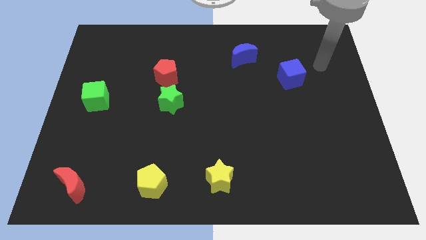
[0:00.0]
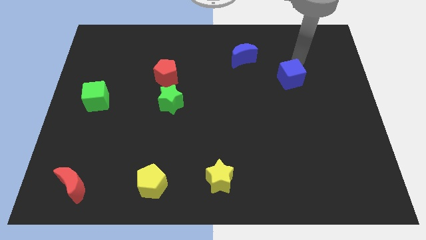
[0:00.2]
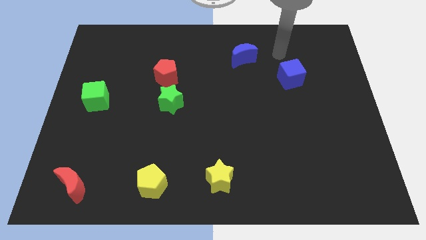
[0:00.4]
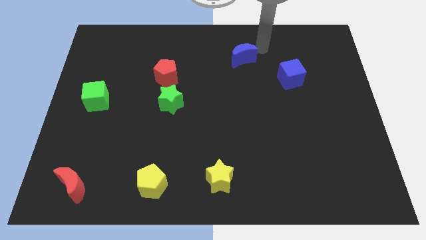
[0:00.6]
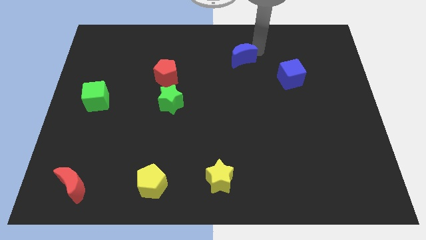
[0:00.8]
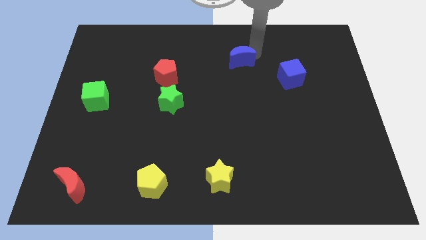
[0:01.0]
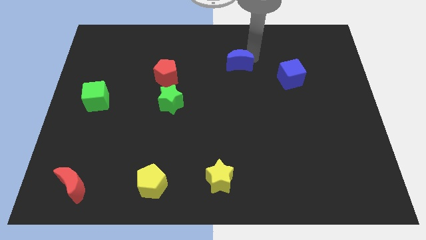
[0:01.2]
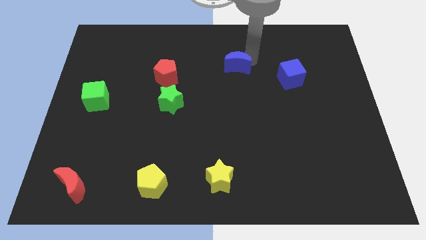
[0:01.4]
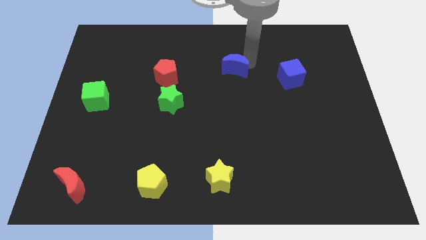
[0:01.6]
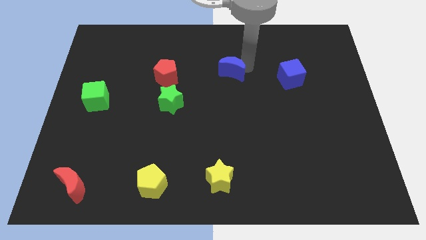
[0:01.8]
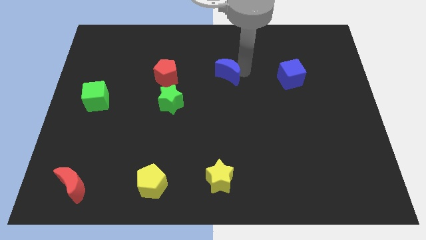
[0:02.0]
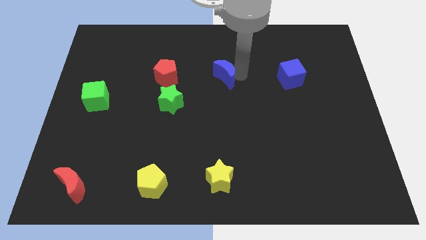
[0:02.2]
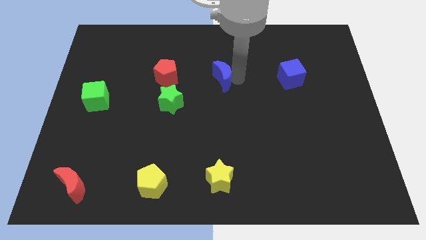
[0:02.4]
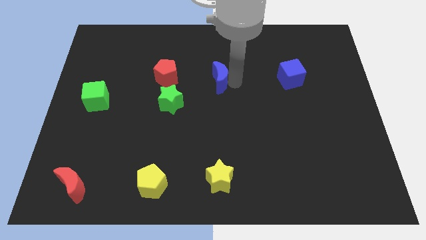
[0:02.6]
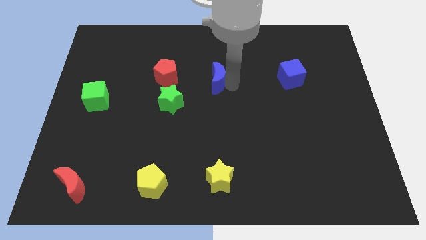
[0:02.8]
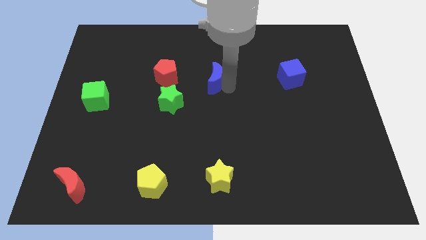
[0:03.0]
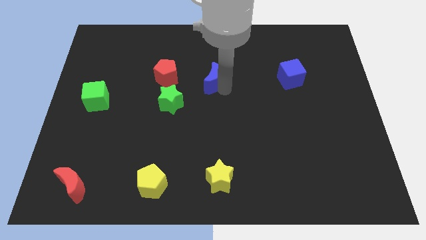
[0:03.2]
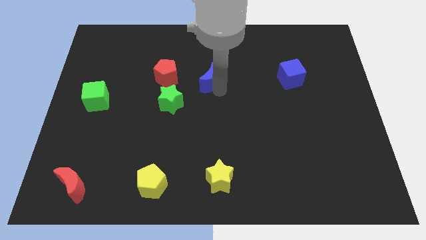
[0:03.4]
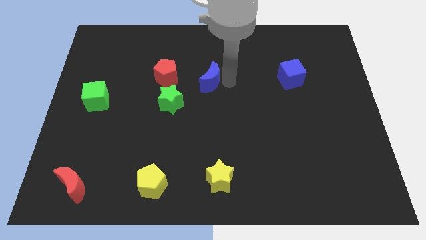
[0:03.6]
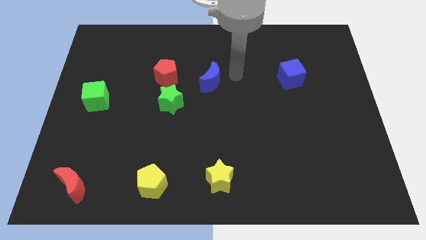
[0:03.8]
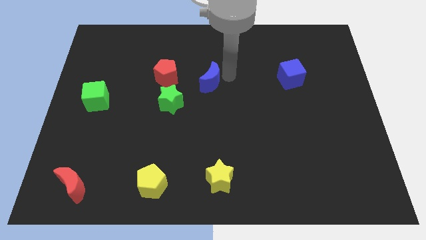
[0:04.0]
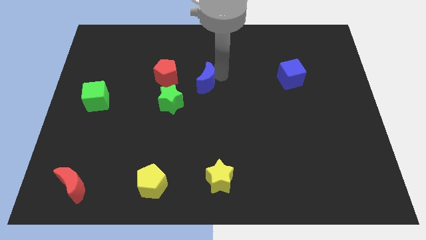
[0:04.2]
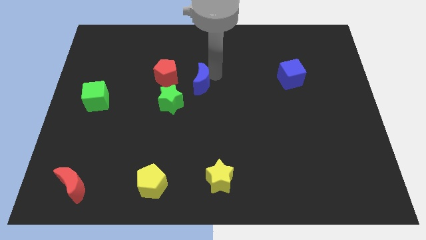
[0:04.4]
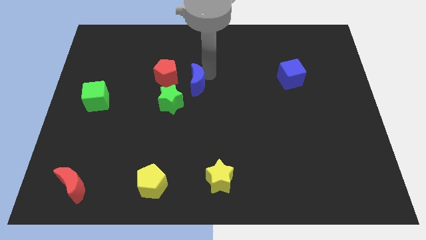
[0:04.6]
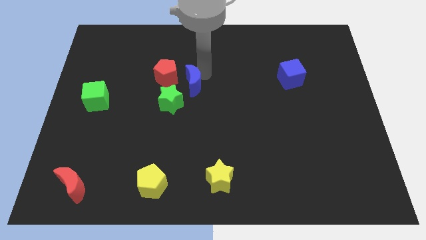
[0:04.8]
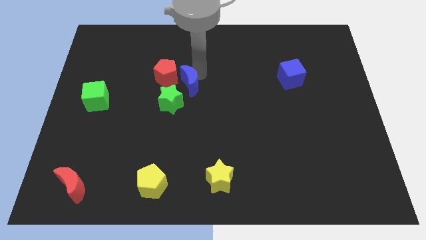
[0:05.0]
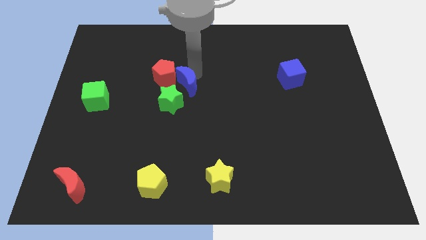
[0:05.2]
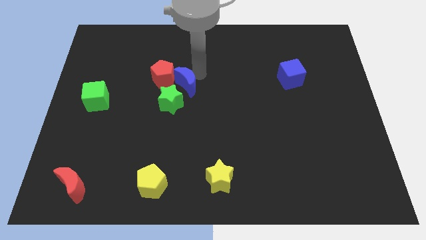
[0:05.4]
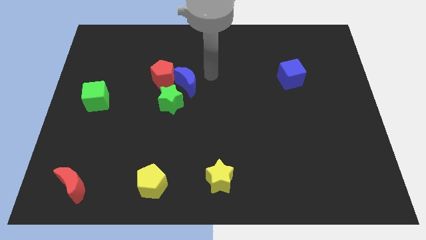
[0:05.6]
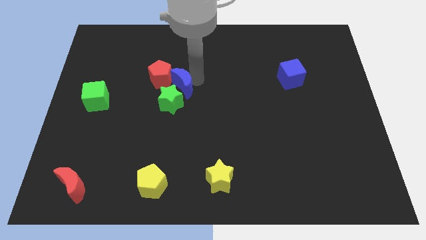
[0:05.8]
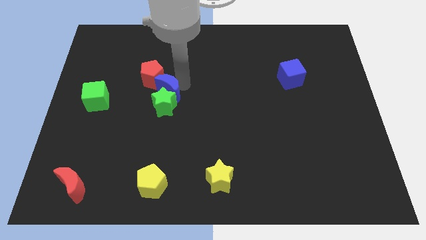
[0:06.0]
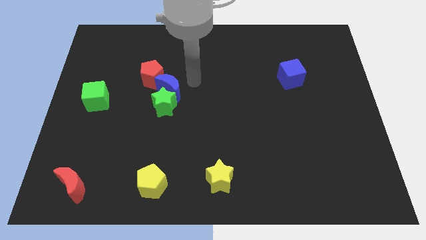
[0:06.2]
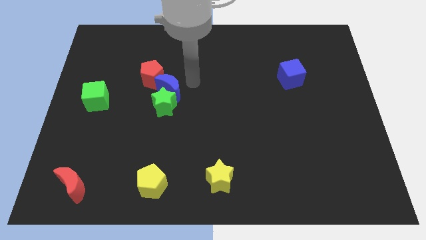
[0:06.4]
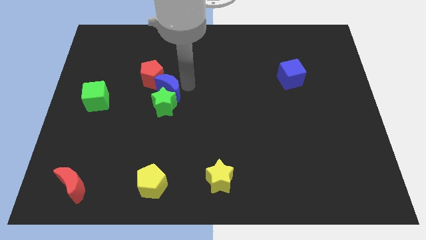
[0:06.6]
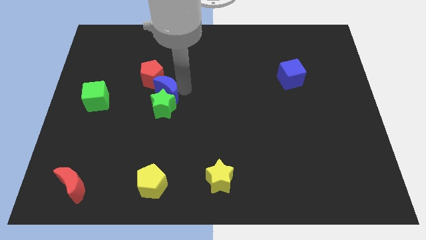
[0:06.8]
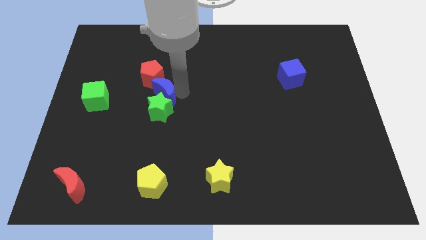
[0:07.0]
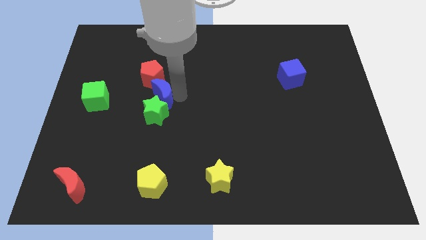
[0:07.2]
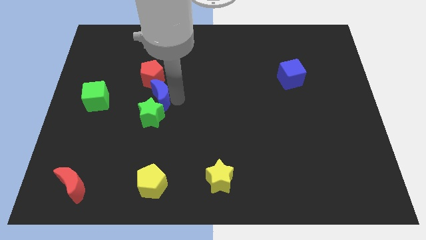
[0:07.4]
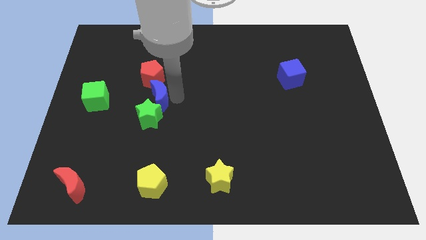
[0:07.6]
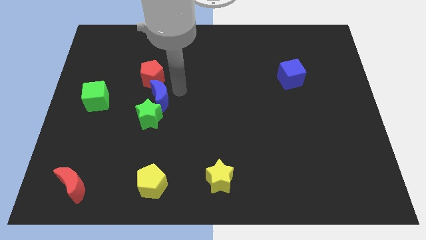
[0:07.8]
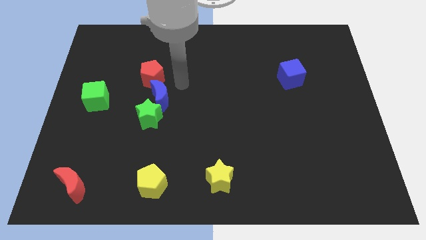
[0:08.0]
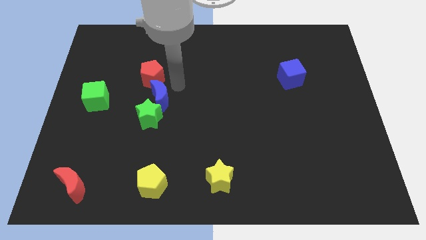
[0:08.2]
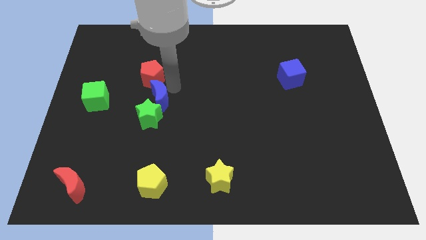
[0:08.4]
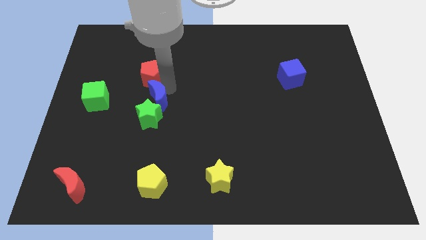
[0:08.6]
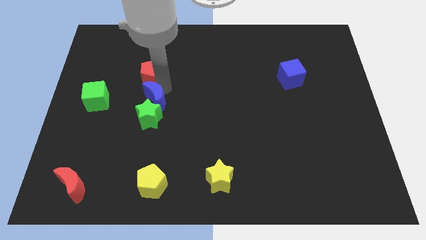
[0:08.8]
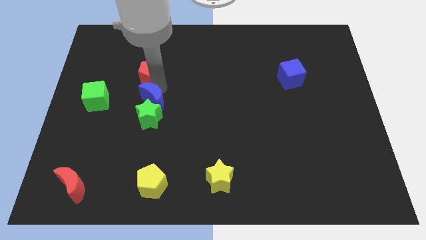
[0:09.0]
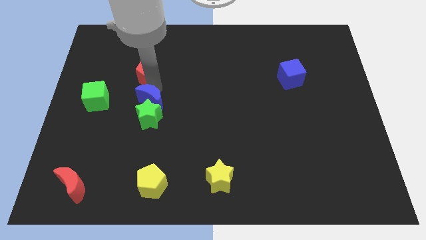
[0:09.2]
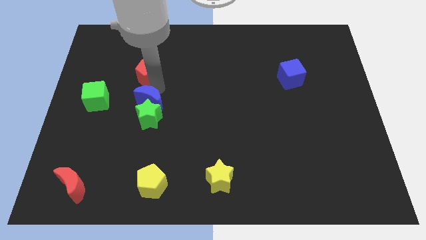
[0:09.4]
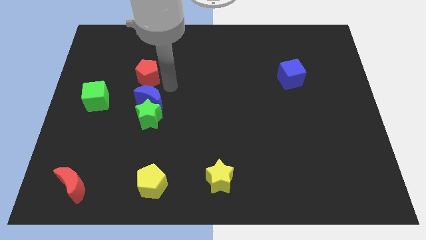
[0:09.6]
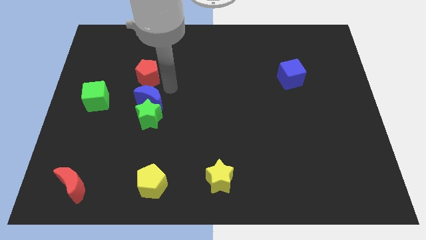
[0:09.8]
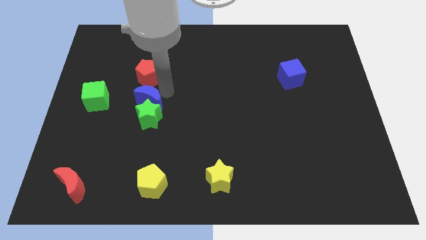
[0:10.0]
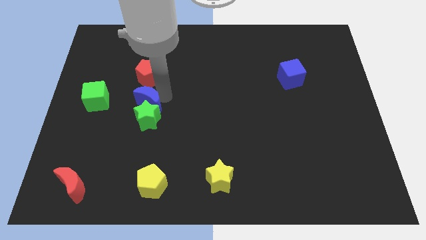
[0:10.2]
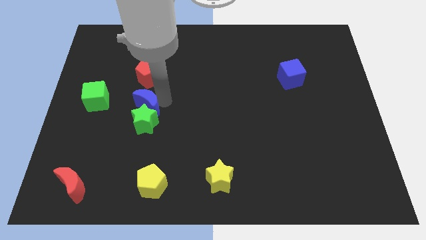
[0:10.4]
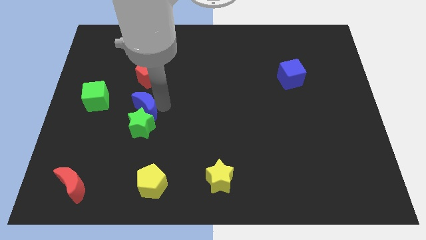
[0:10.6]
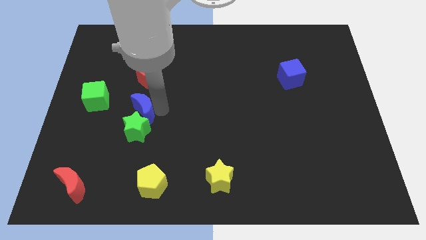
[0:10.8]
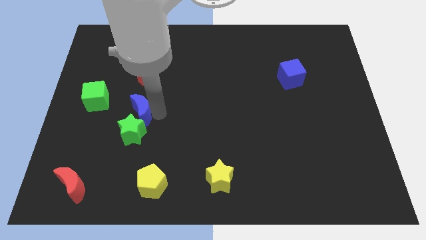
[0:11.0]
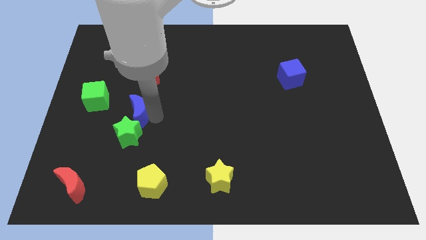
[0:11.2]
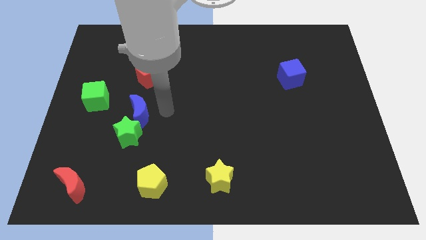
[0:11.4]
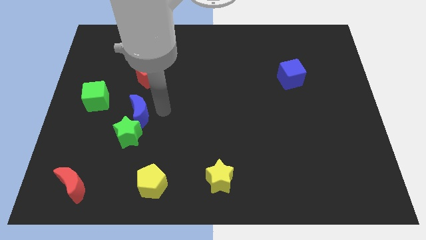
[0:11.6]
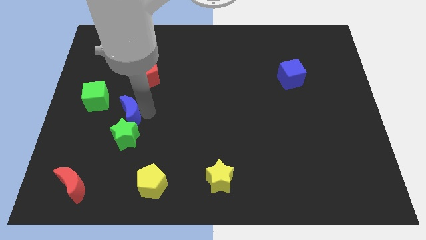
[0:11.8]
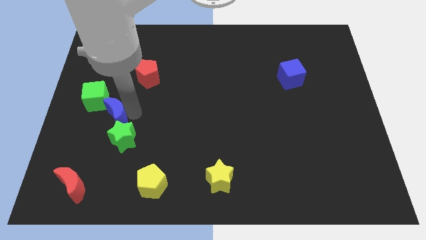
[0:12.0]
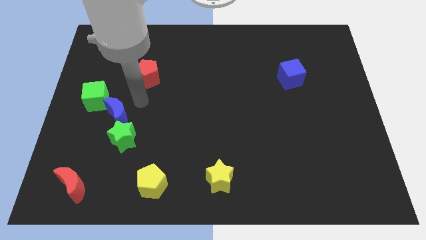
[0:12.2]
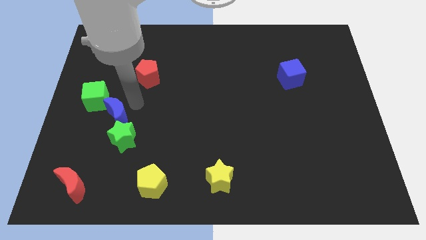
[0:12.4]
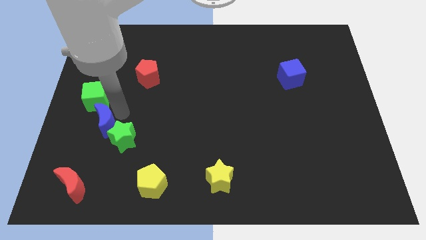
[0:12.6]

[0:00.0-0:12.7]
put the blue moon below the green cube

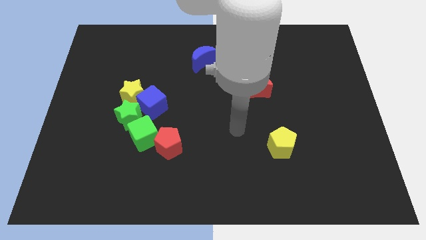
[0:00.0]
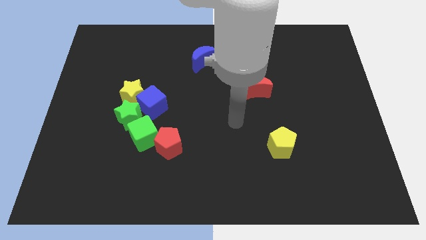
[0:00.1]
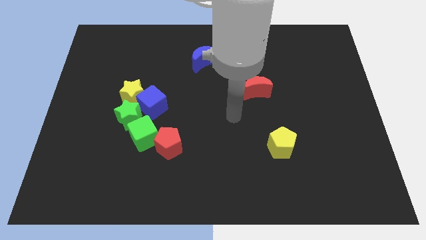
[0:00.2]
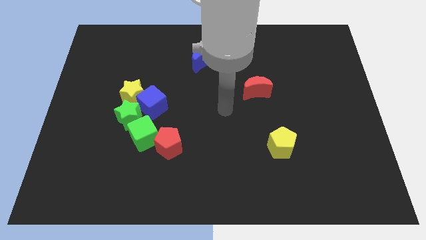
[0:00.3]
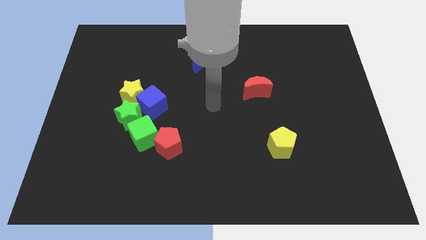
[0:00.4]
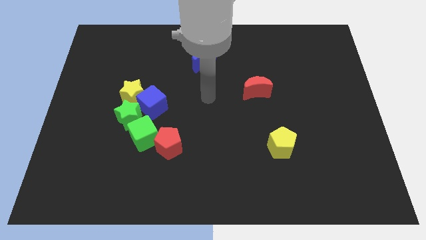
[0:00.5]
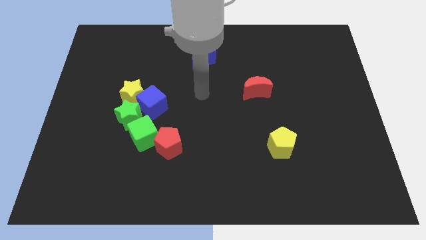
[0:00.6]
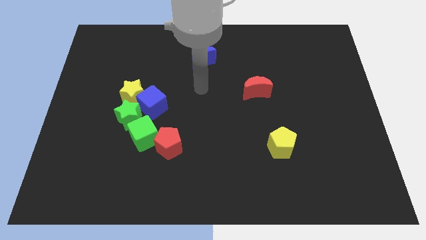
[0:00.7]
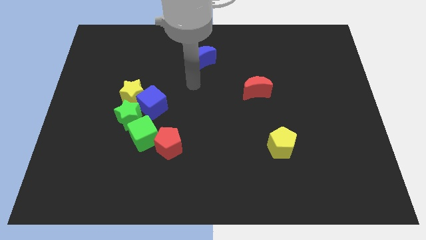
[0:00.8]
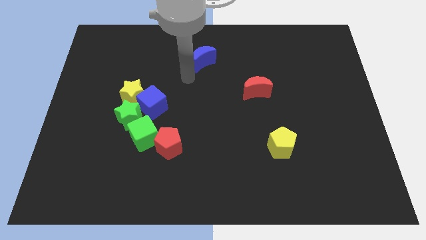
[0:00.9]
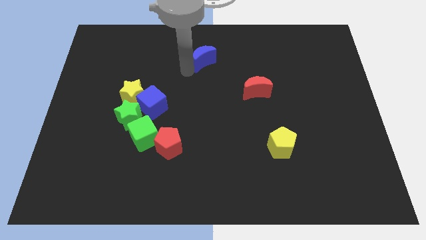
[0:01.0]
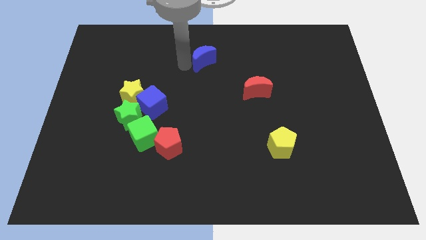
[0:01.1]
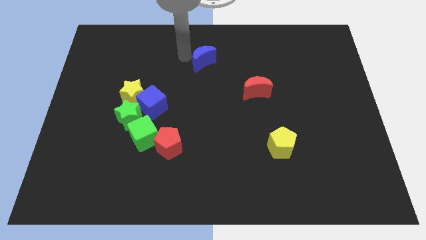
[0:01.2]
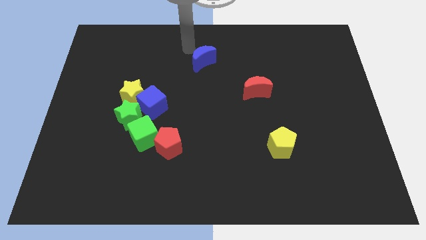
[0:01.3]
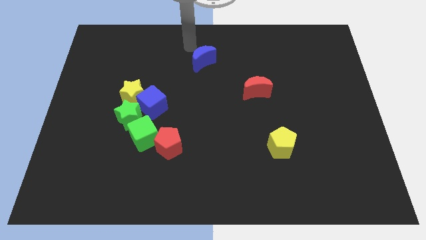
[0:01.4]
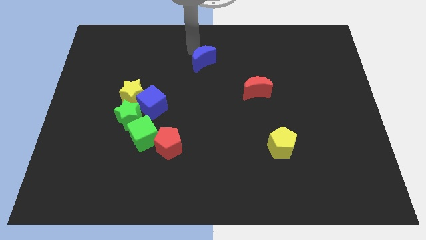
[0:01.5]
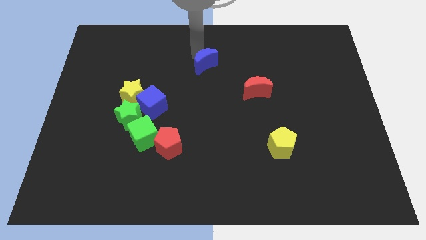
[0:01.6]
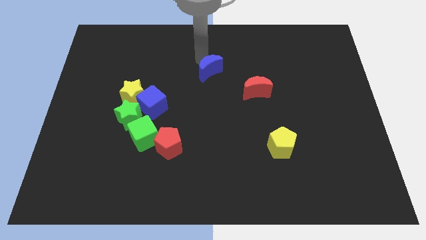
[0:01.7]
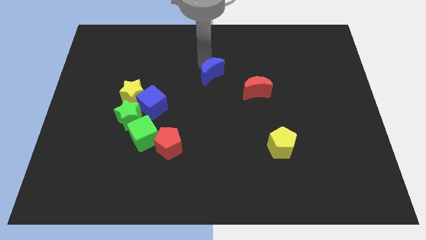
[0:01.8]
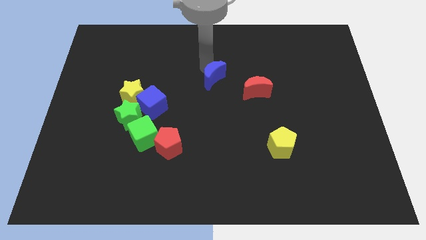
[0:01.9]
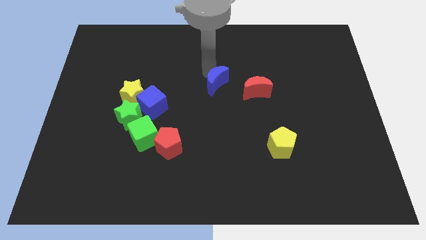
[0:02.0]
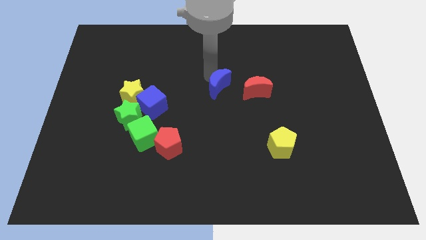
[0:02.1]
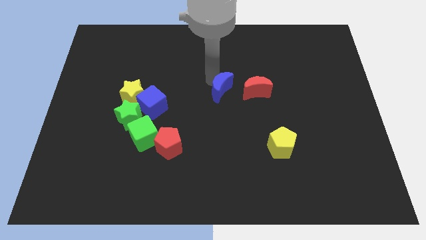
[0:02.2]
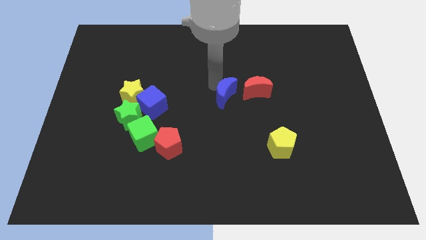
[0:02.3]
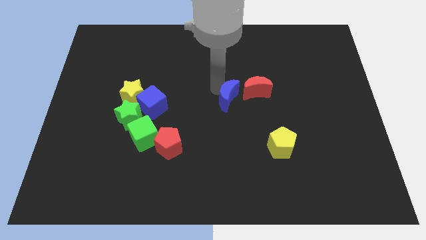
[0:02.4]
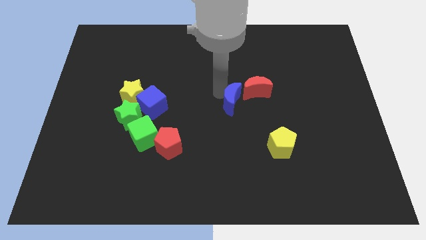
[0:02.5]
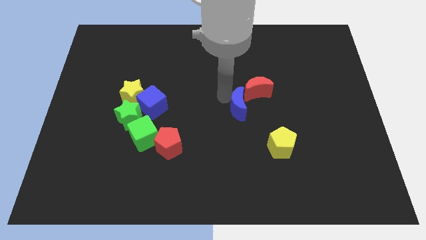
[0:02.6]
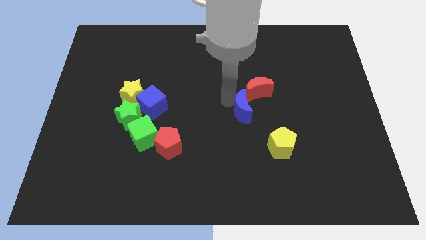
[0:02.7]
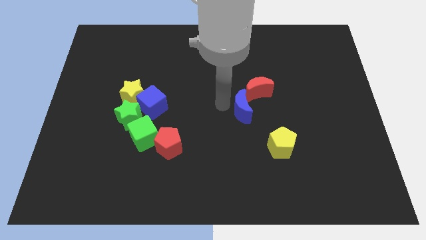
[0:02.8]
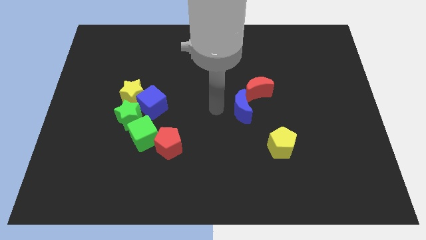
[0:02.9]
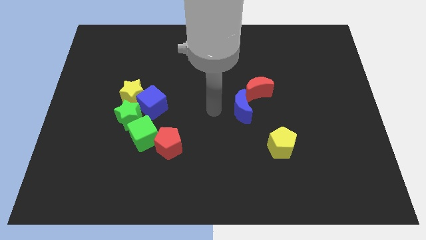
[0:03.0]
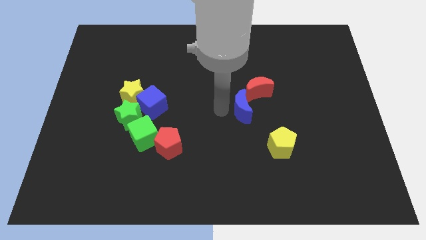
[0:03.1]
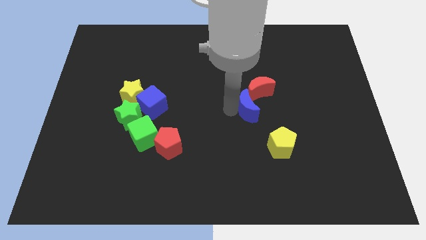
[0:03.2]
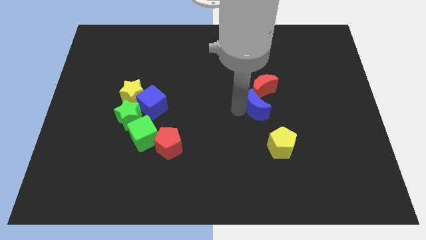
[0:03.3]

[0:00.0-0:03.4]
push the blue moon to the top side of the yellow pentagon
